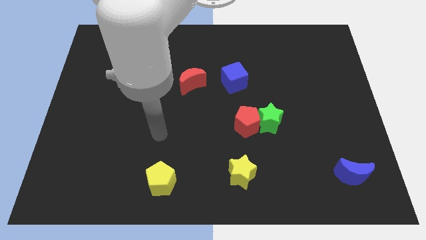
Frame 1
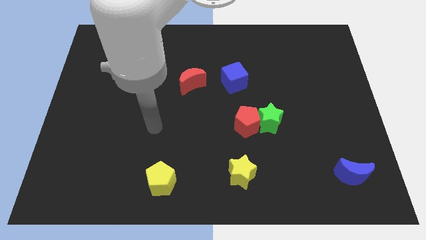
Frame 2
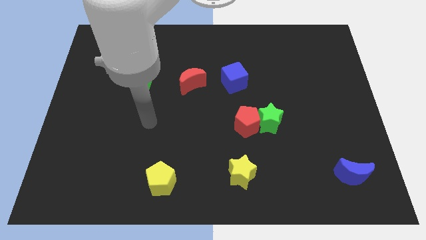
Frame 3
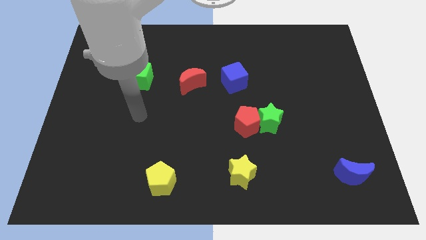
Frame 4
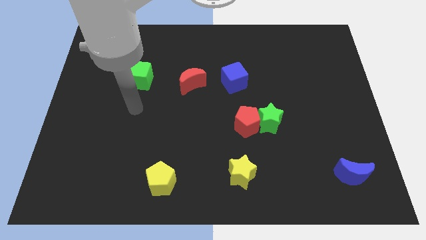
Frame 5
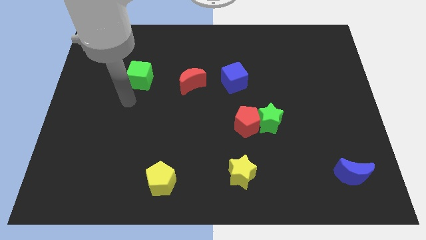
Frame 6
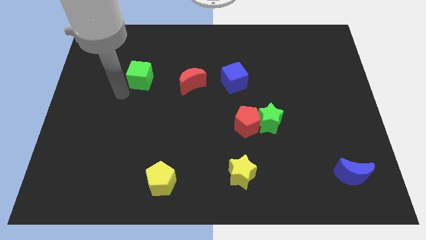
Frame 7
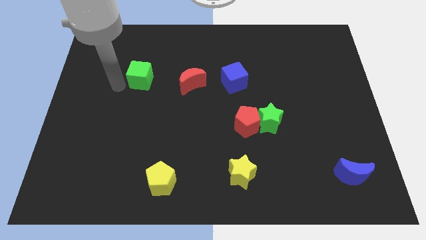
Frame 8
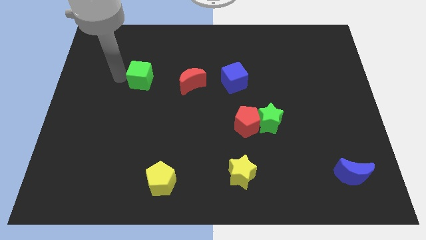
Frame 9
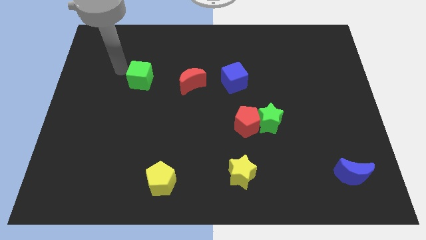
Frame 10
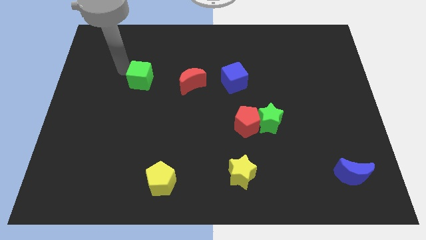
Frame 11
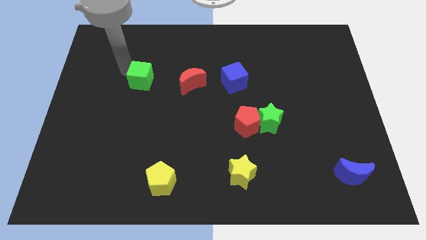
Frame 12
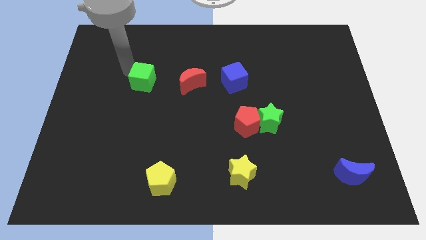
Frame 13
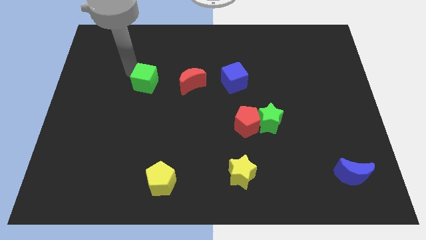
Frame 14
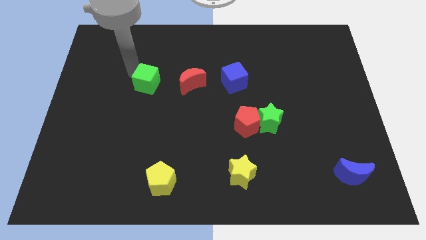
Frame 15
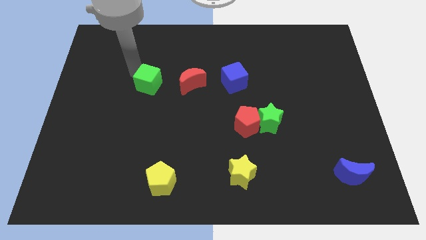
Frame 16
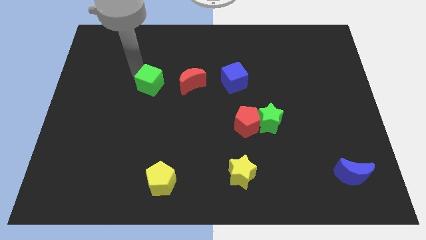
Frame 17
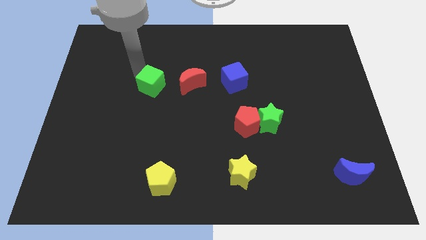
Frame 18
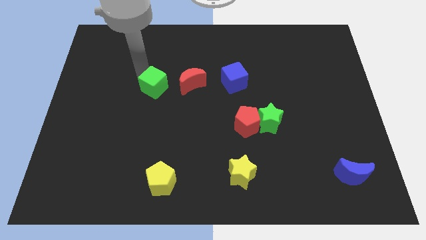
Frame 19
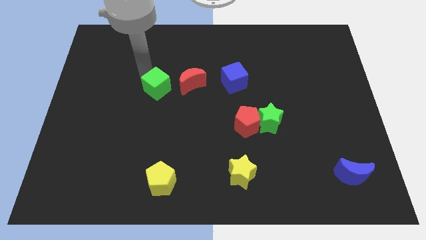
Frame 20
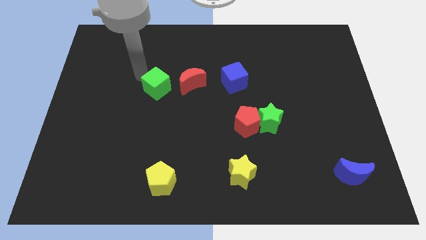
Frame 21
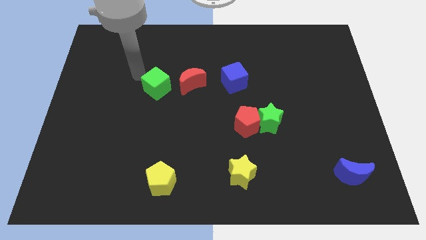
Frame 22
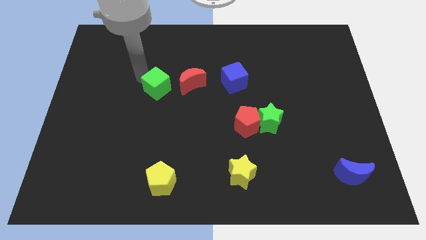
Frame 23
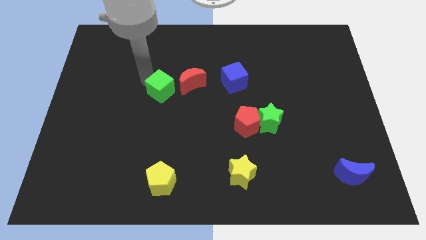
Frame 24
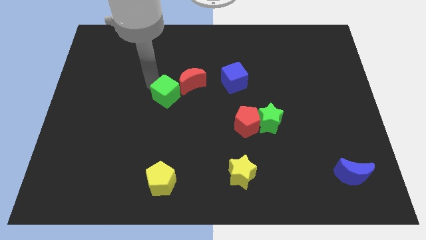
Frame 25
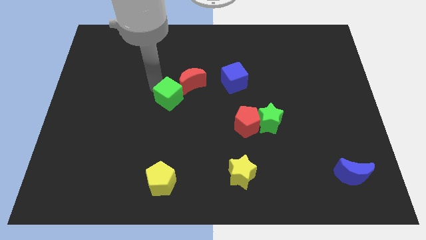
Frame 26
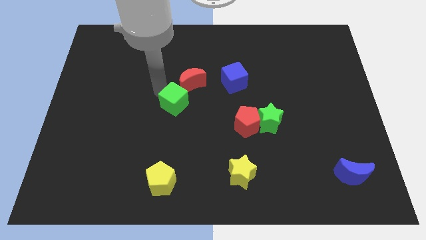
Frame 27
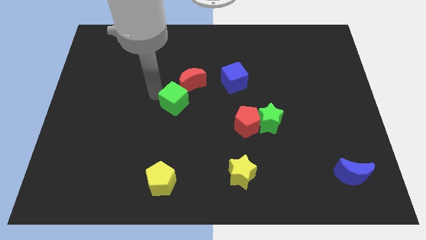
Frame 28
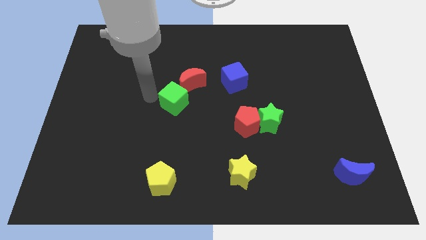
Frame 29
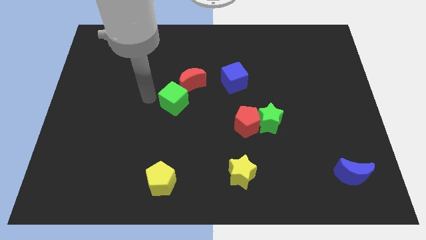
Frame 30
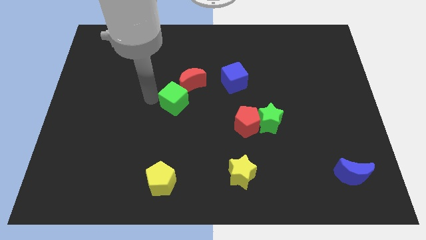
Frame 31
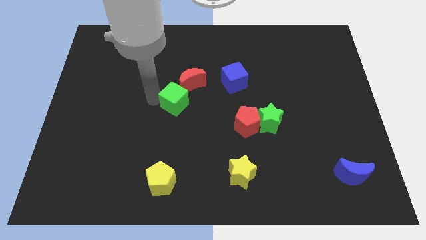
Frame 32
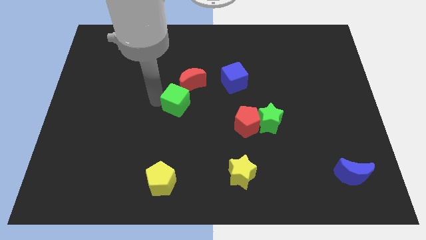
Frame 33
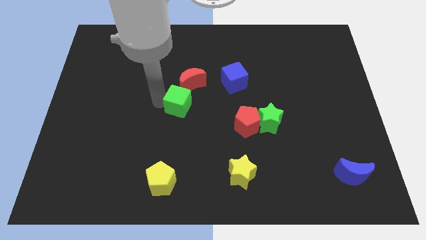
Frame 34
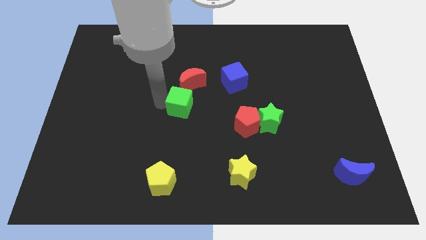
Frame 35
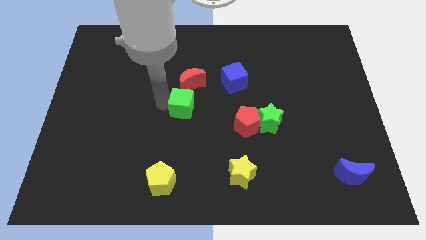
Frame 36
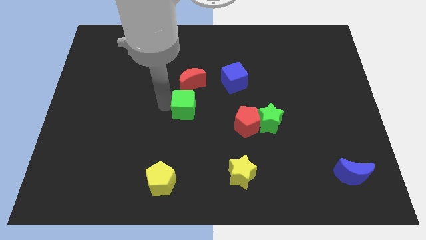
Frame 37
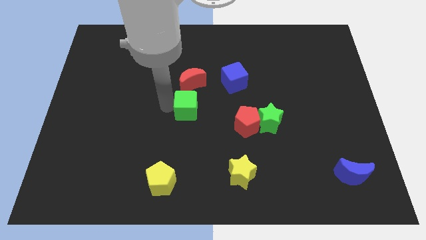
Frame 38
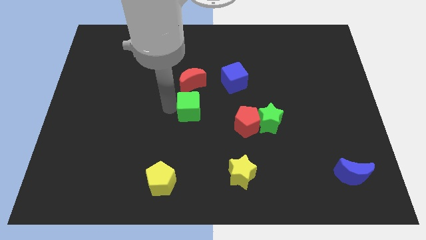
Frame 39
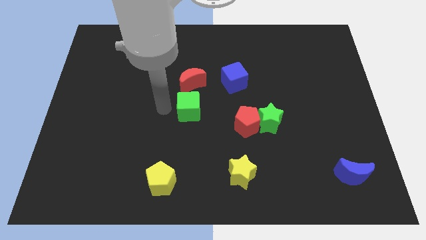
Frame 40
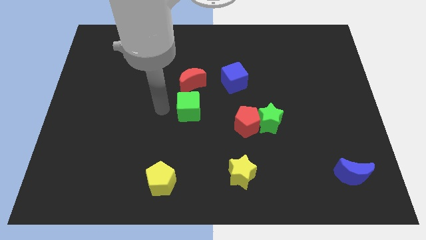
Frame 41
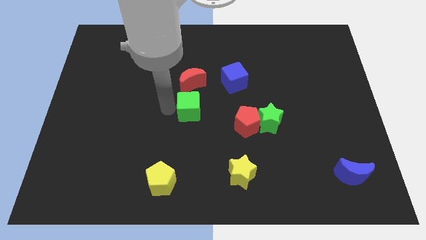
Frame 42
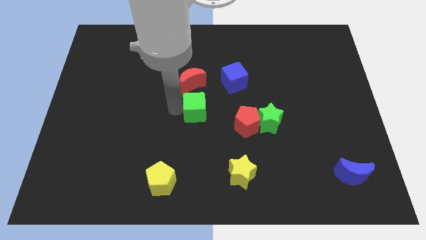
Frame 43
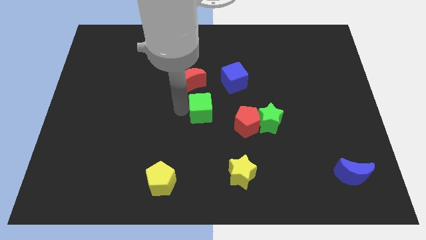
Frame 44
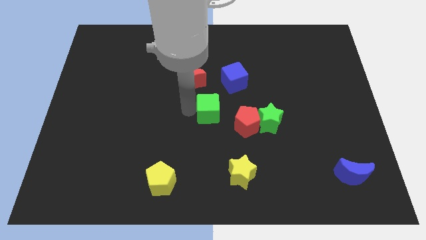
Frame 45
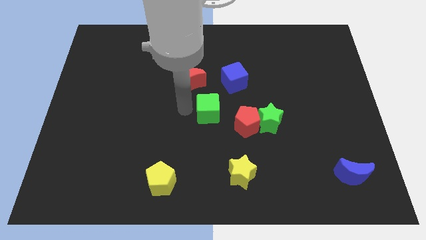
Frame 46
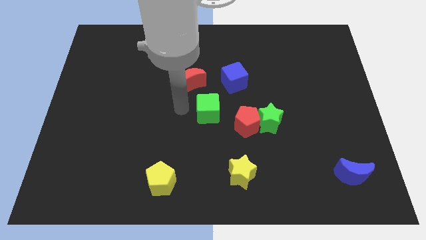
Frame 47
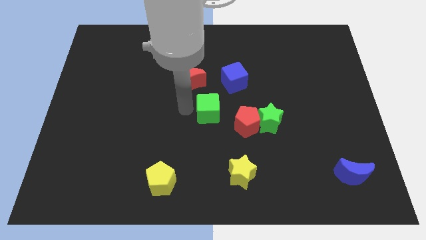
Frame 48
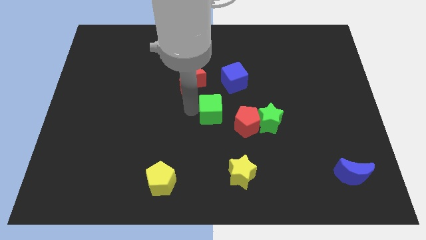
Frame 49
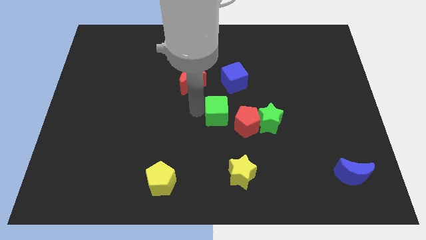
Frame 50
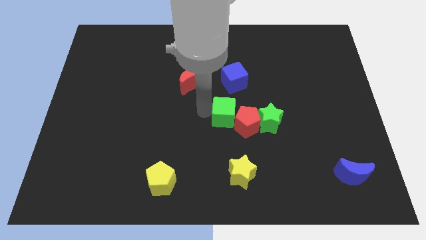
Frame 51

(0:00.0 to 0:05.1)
put the green cube next to the red pentagon

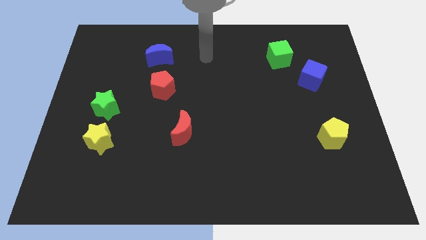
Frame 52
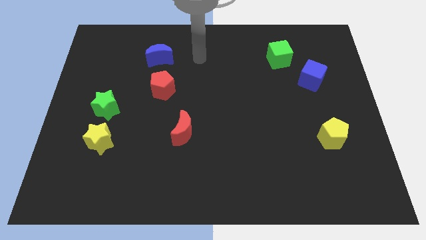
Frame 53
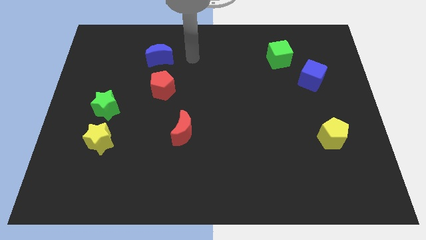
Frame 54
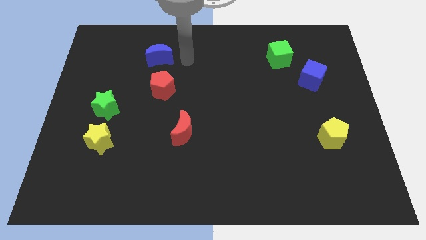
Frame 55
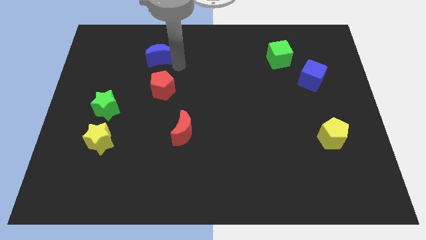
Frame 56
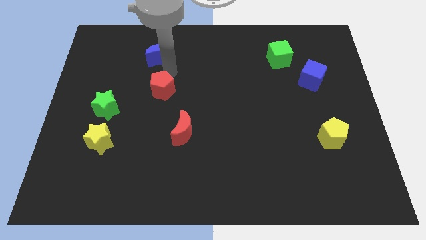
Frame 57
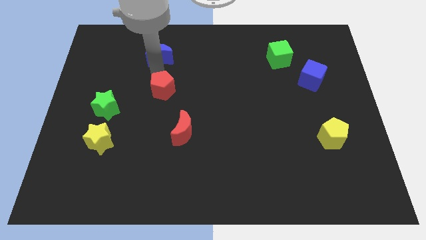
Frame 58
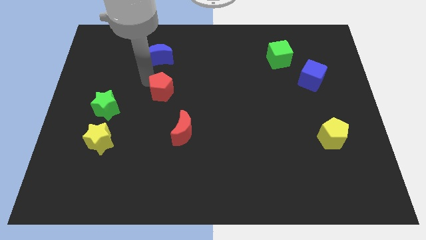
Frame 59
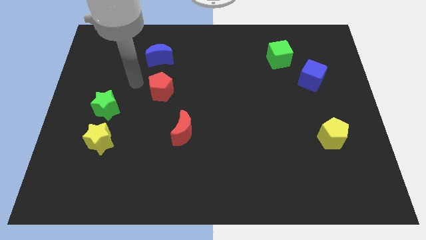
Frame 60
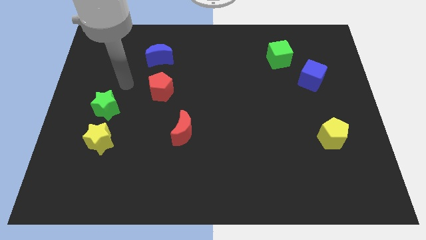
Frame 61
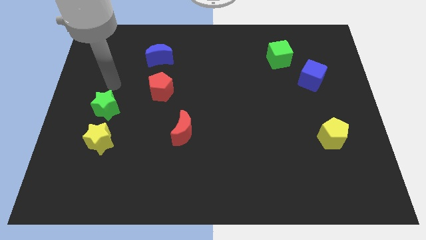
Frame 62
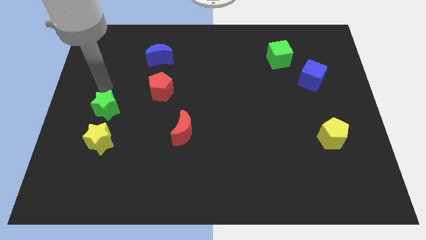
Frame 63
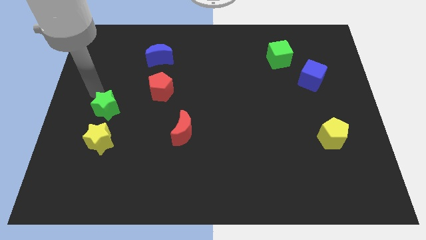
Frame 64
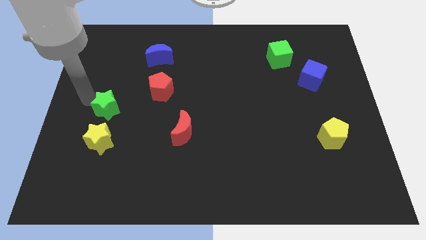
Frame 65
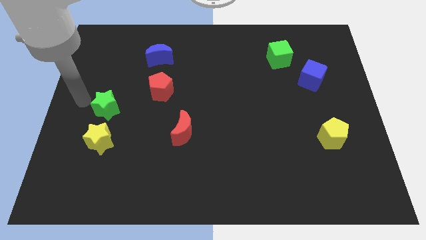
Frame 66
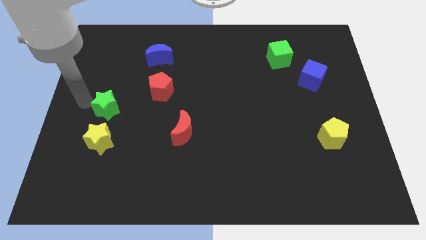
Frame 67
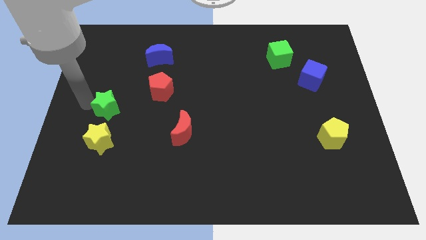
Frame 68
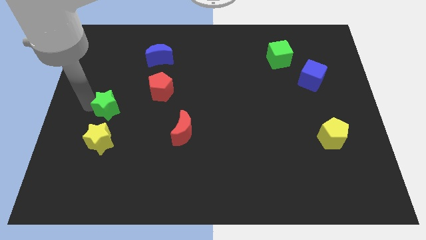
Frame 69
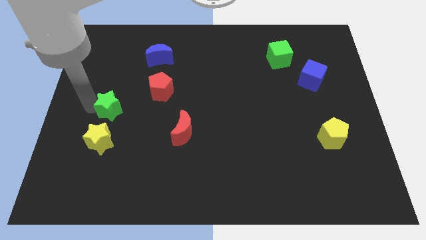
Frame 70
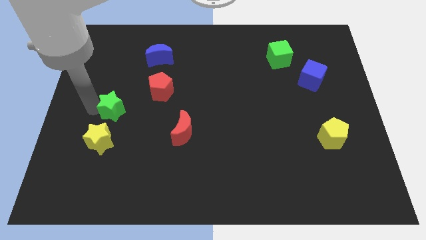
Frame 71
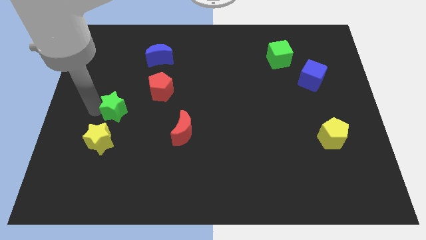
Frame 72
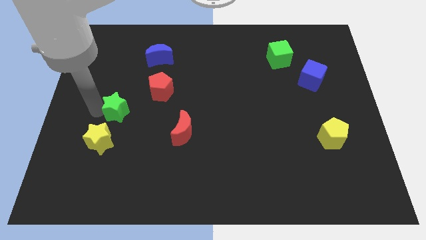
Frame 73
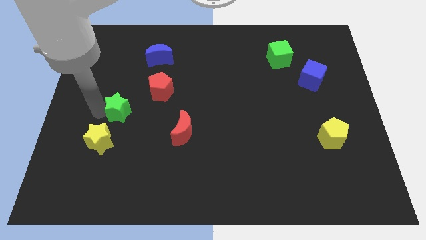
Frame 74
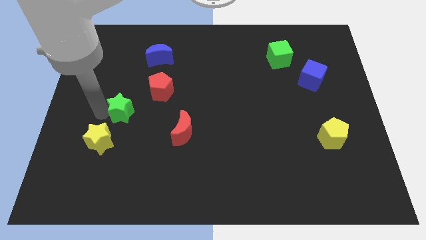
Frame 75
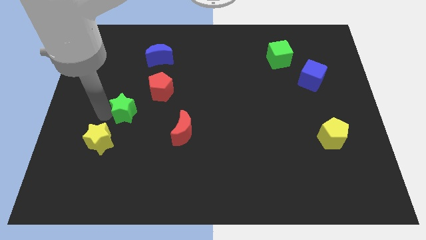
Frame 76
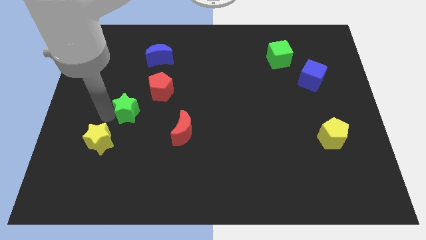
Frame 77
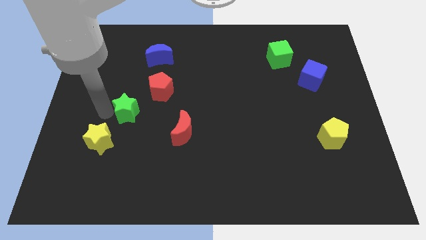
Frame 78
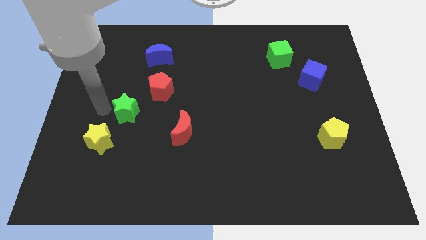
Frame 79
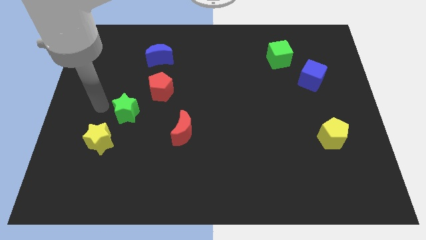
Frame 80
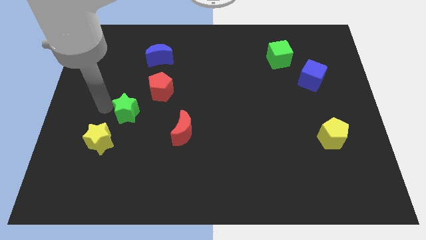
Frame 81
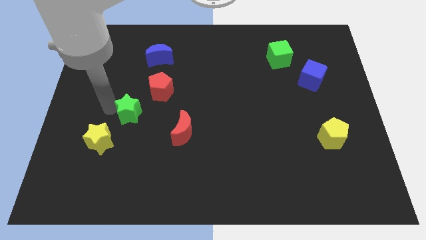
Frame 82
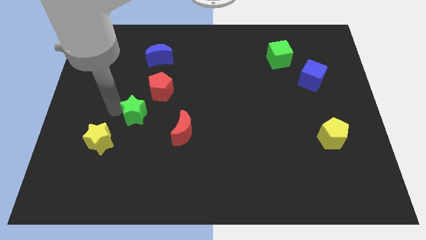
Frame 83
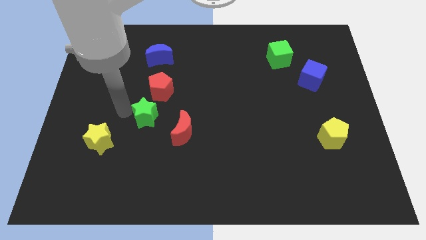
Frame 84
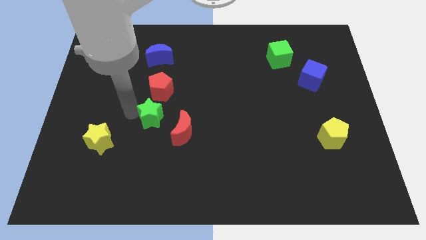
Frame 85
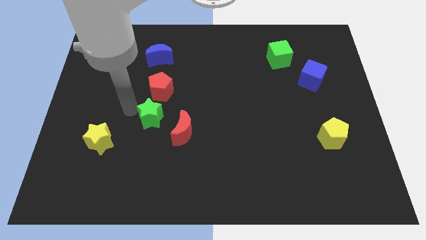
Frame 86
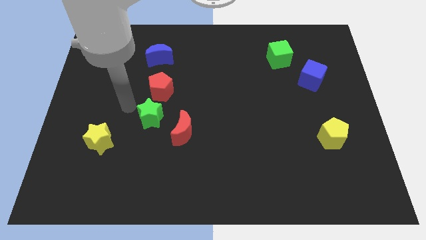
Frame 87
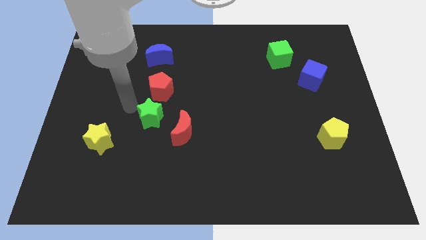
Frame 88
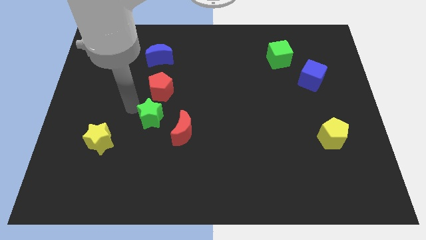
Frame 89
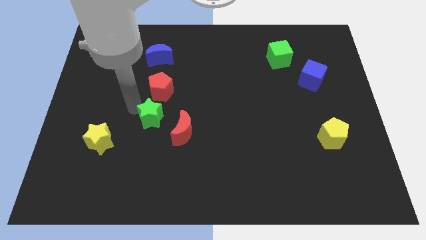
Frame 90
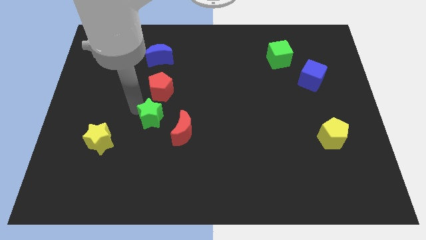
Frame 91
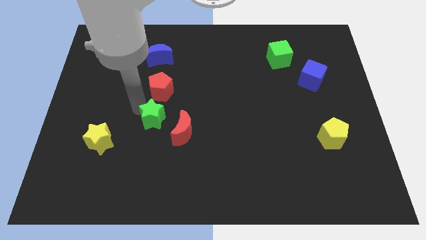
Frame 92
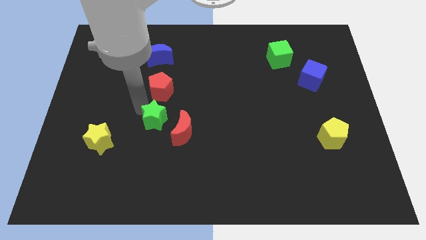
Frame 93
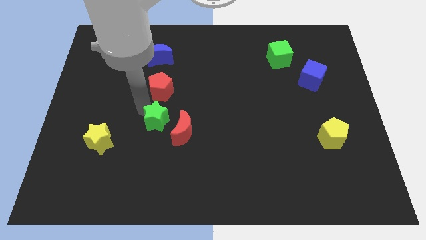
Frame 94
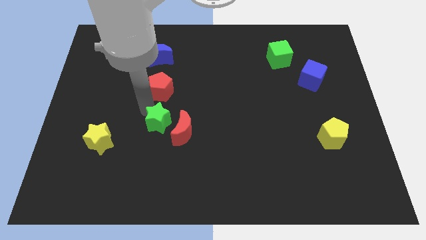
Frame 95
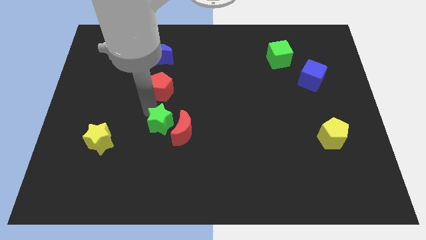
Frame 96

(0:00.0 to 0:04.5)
slide the green star to the red moon
